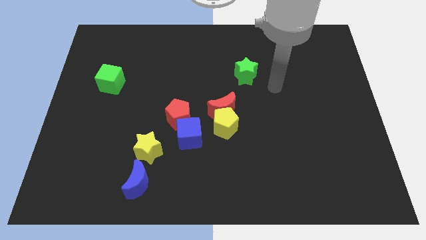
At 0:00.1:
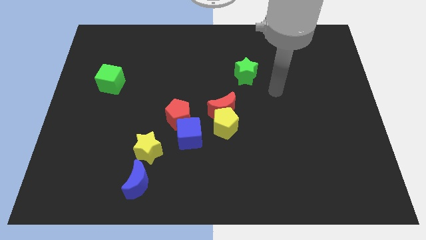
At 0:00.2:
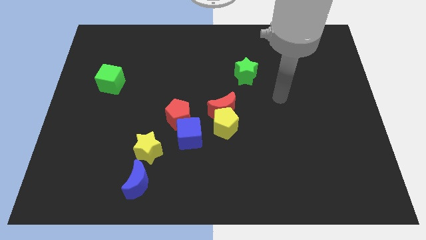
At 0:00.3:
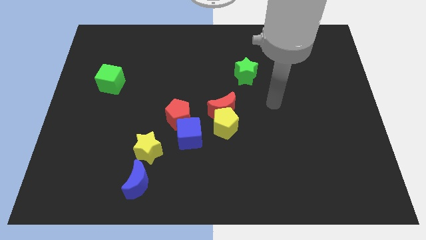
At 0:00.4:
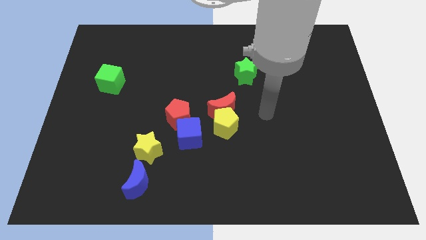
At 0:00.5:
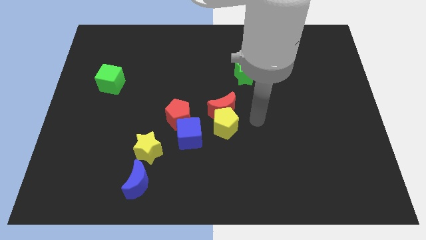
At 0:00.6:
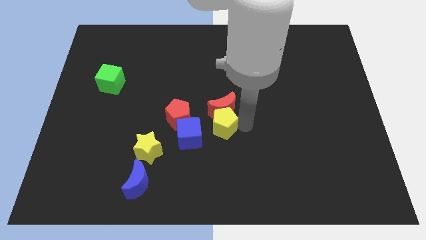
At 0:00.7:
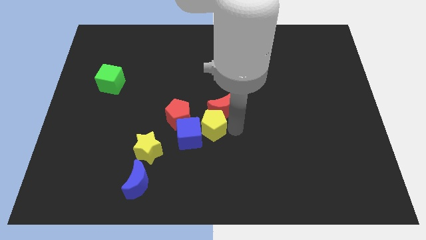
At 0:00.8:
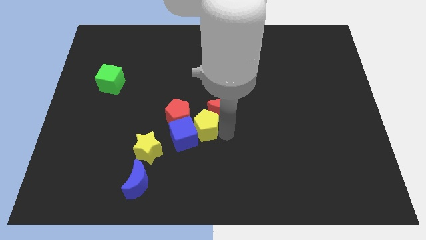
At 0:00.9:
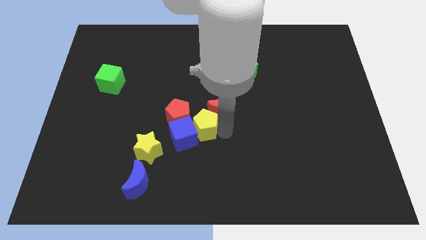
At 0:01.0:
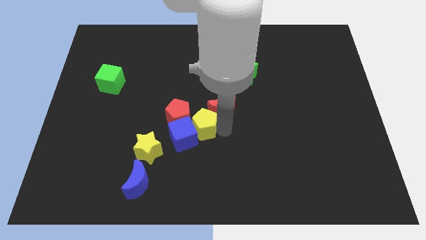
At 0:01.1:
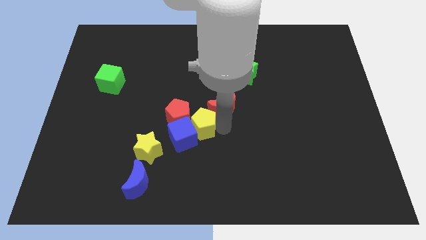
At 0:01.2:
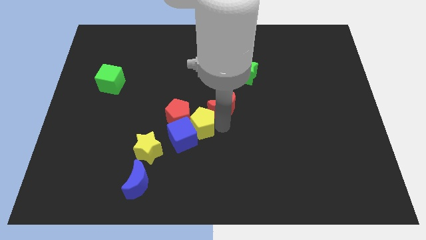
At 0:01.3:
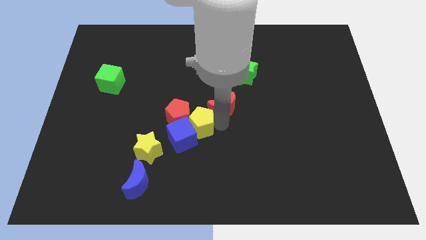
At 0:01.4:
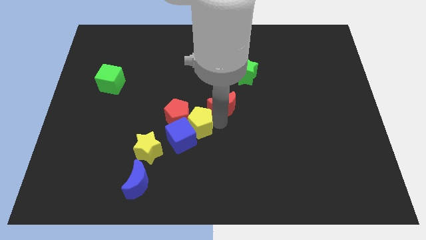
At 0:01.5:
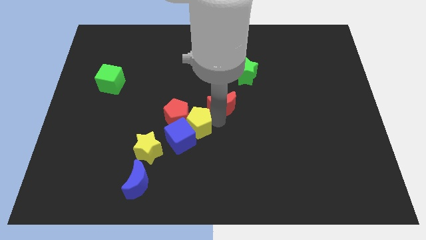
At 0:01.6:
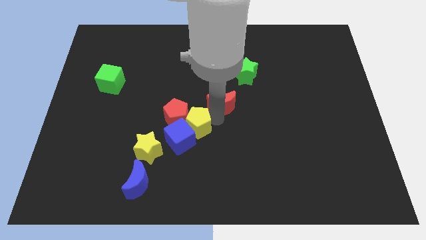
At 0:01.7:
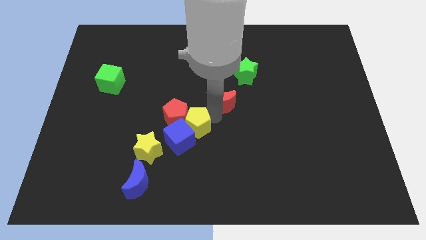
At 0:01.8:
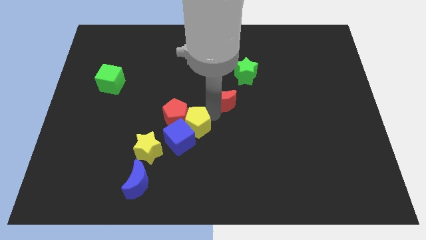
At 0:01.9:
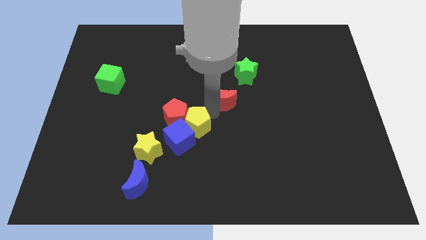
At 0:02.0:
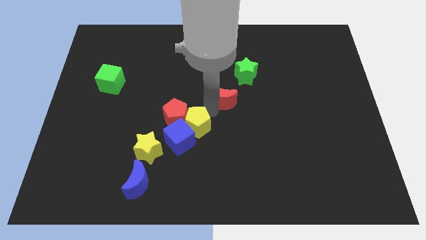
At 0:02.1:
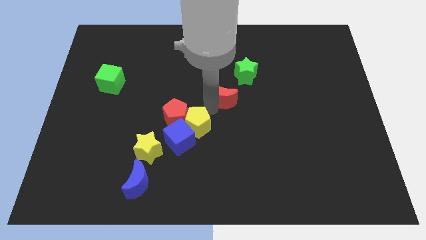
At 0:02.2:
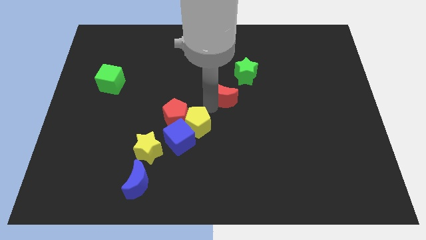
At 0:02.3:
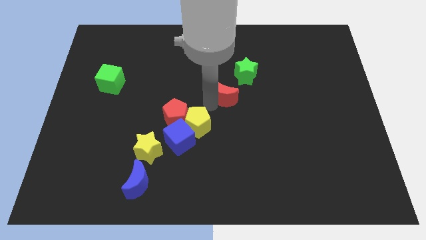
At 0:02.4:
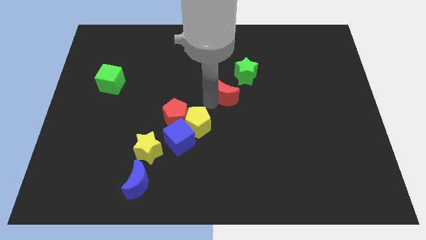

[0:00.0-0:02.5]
move the red moon away from the yellow pentagon

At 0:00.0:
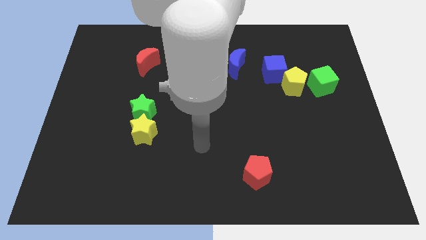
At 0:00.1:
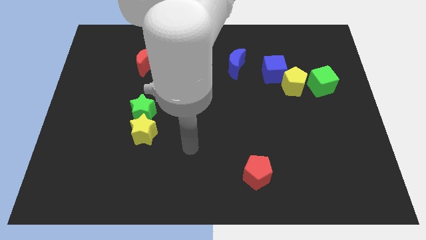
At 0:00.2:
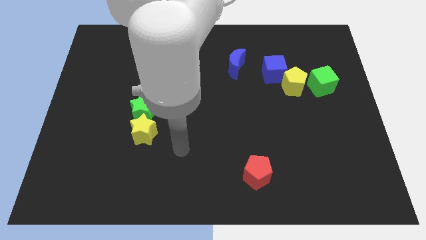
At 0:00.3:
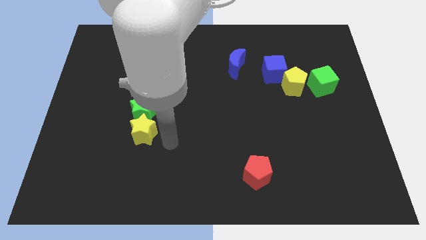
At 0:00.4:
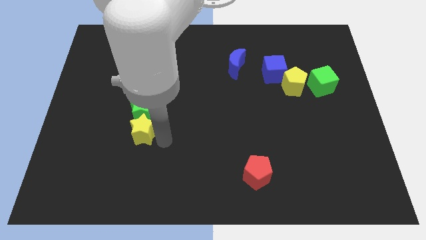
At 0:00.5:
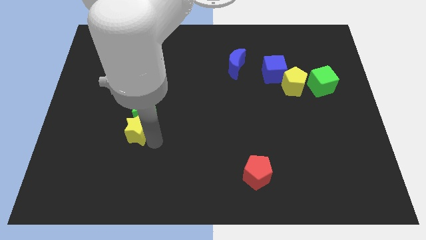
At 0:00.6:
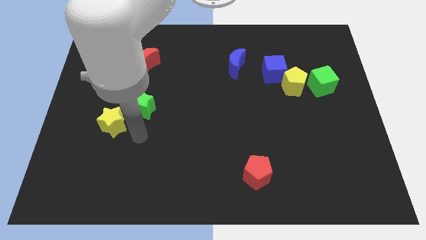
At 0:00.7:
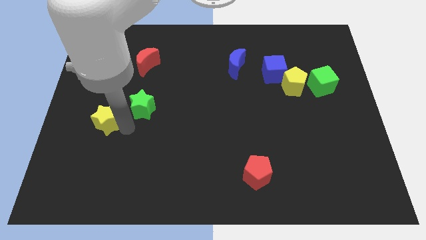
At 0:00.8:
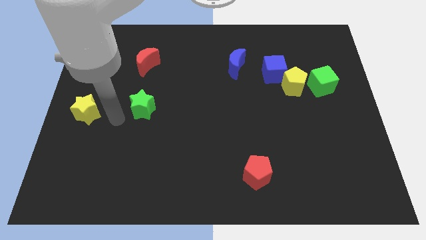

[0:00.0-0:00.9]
separate the green star from the yellow star

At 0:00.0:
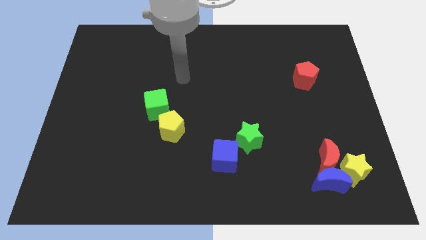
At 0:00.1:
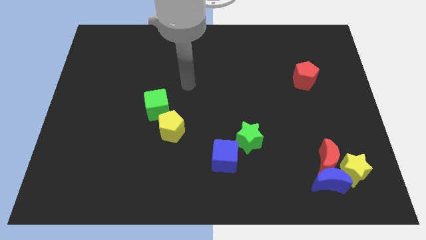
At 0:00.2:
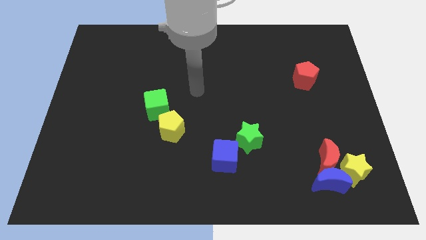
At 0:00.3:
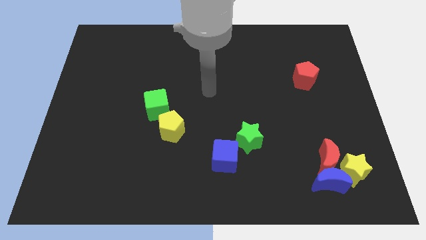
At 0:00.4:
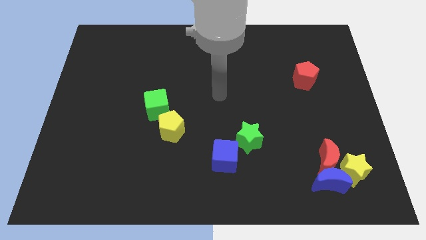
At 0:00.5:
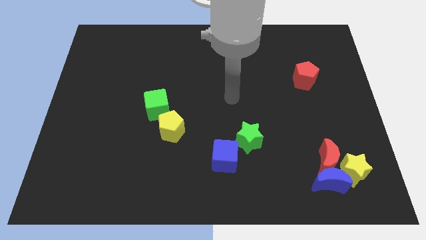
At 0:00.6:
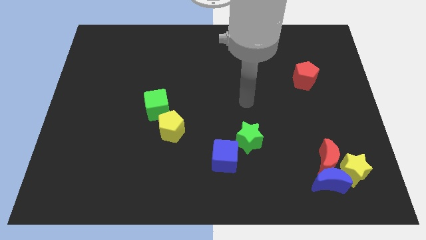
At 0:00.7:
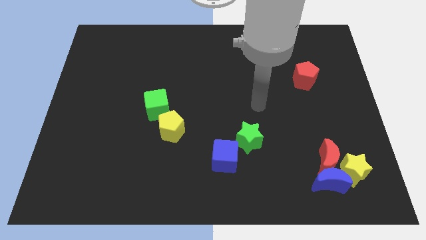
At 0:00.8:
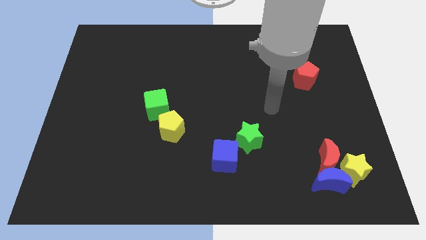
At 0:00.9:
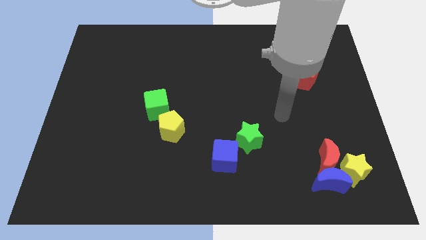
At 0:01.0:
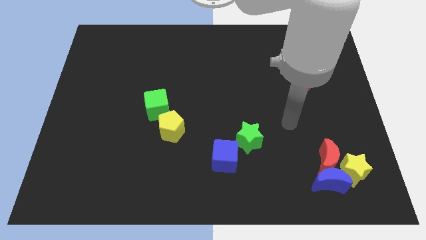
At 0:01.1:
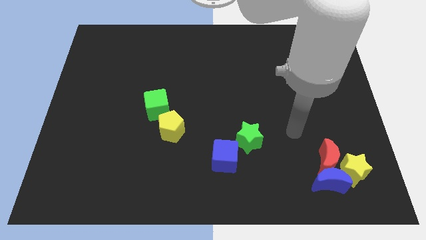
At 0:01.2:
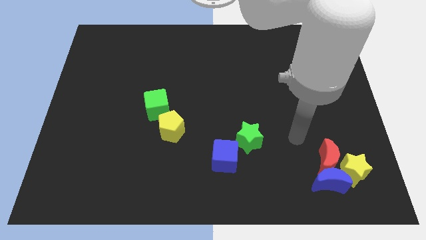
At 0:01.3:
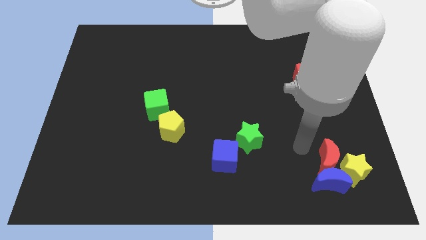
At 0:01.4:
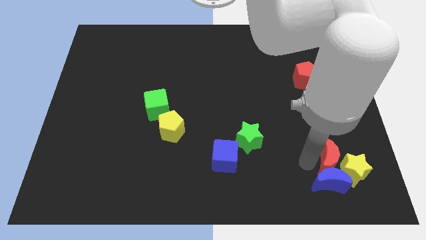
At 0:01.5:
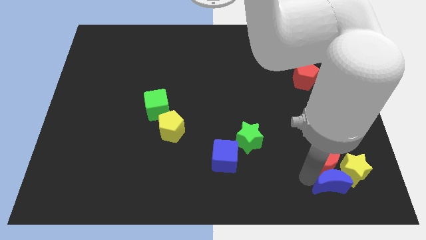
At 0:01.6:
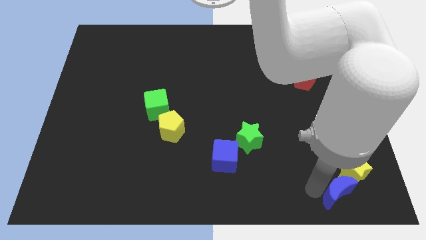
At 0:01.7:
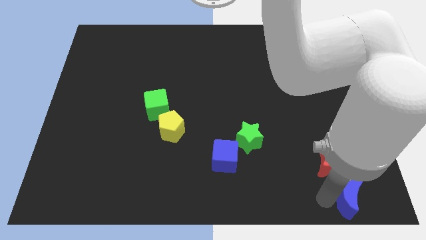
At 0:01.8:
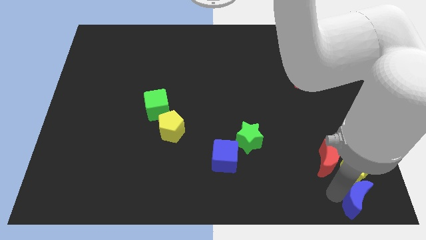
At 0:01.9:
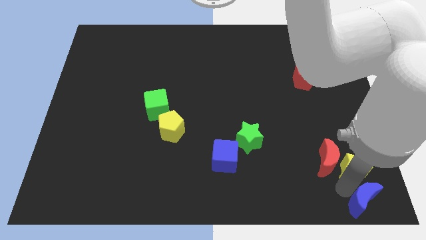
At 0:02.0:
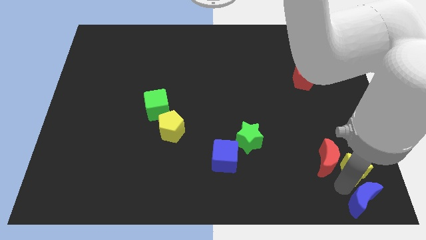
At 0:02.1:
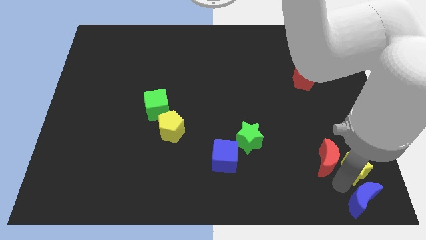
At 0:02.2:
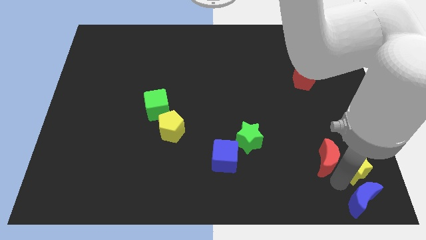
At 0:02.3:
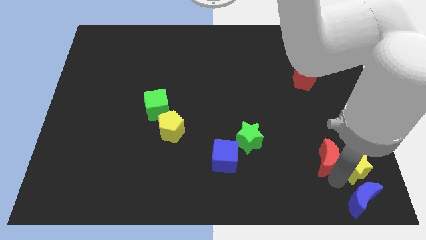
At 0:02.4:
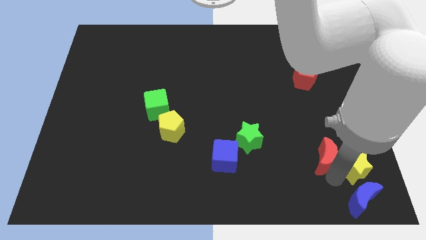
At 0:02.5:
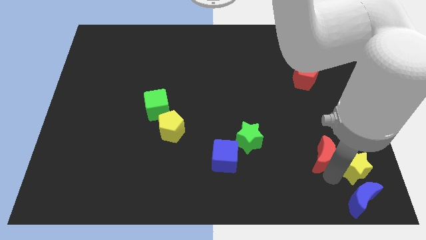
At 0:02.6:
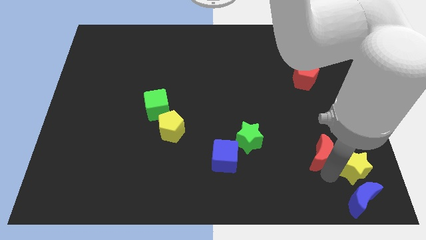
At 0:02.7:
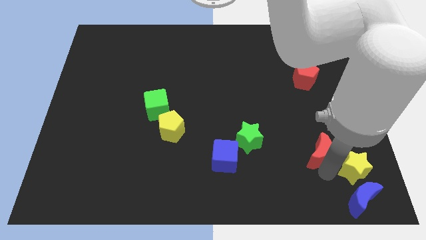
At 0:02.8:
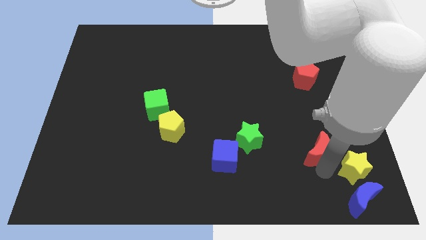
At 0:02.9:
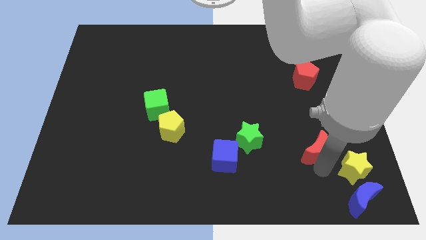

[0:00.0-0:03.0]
move the red moon away from the blue moon and yellow star

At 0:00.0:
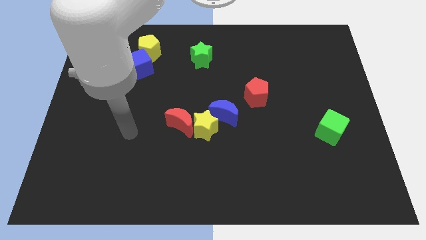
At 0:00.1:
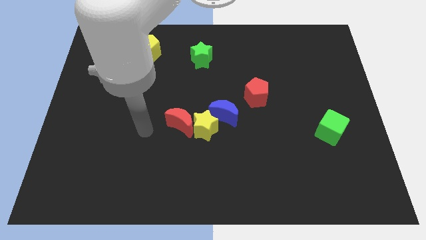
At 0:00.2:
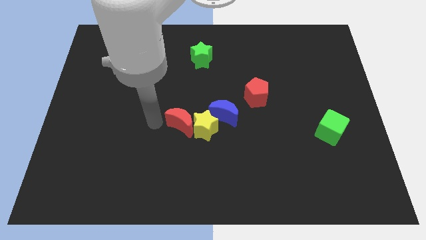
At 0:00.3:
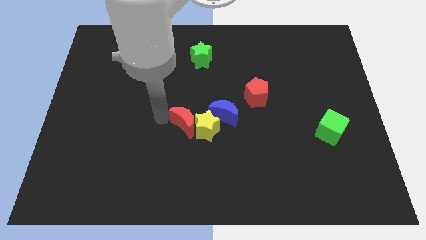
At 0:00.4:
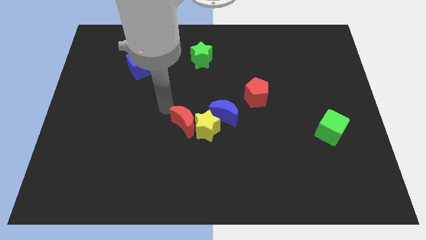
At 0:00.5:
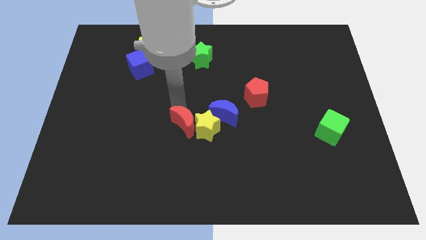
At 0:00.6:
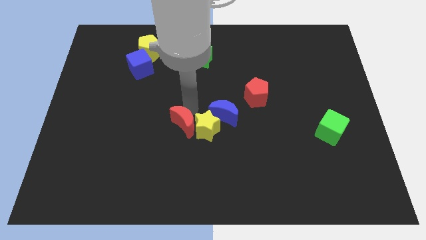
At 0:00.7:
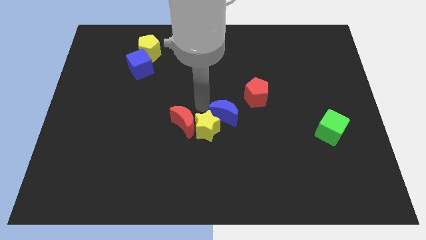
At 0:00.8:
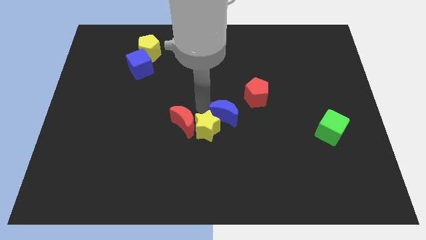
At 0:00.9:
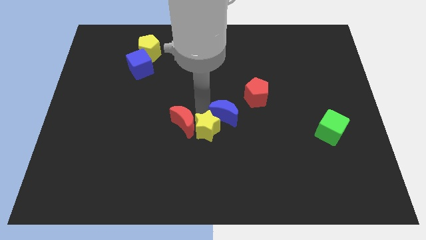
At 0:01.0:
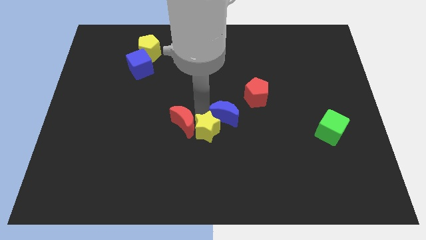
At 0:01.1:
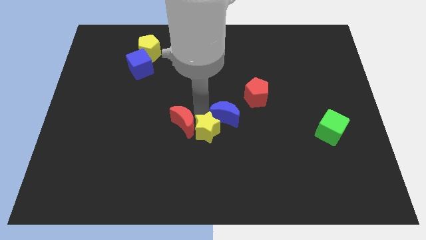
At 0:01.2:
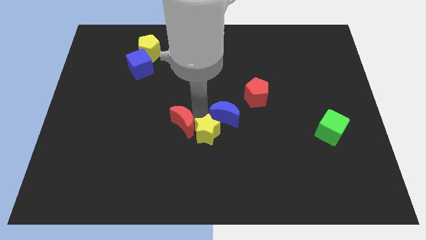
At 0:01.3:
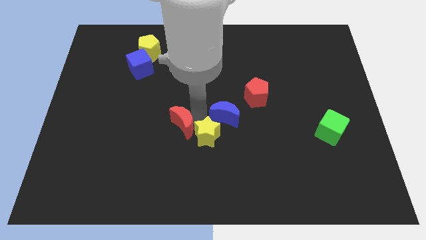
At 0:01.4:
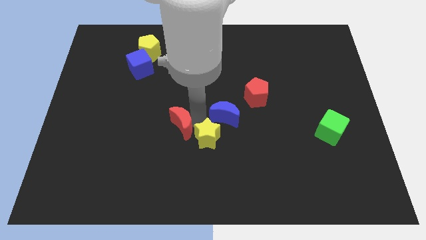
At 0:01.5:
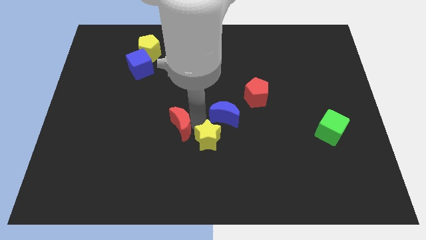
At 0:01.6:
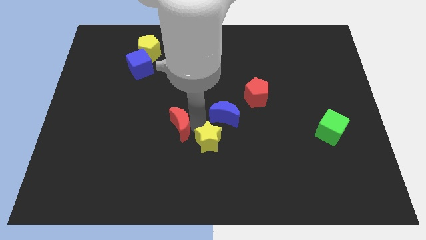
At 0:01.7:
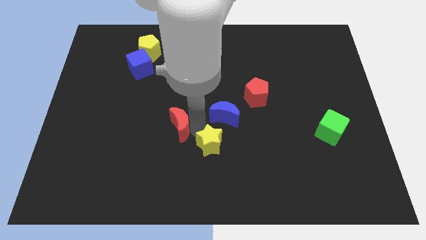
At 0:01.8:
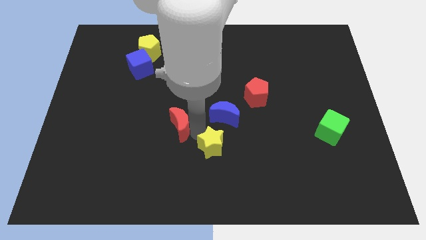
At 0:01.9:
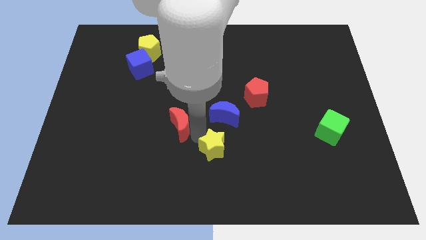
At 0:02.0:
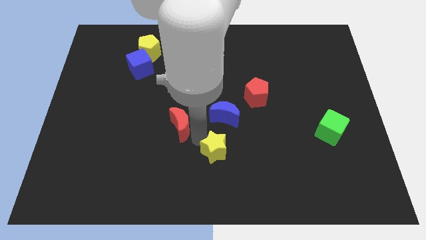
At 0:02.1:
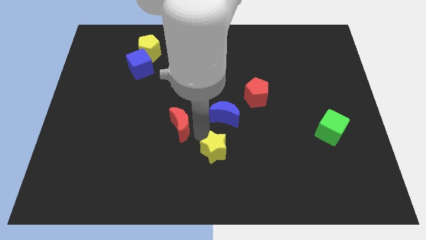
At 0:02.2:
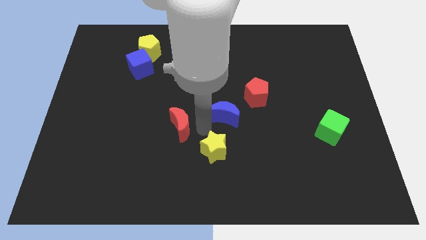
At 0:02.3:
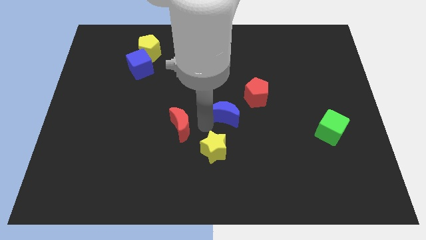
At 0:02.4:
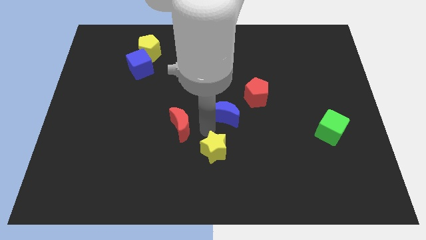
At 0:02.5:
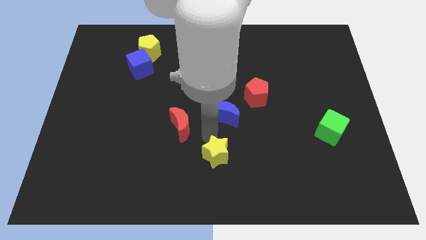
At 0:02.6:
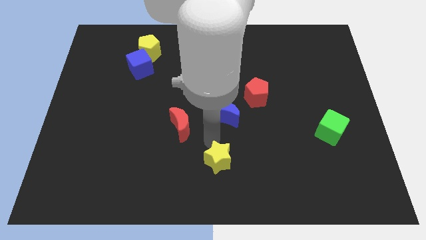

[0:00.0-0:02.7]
move the yellow star away from the red moon and blue moon

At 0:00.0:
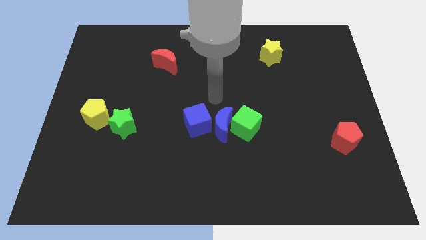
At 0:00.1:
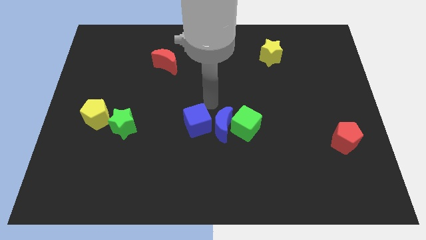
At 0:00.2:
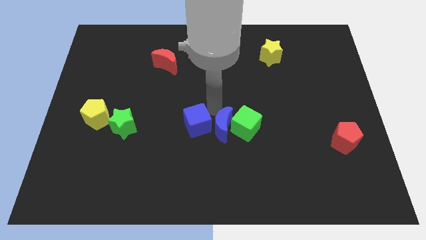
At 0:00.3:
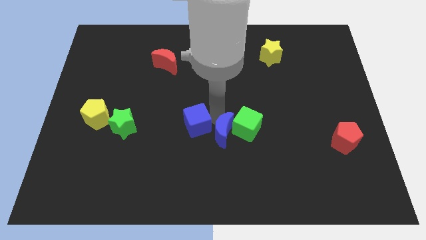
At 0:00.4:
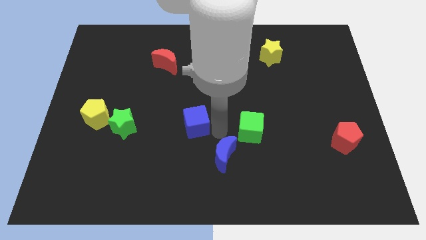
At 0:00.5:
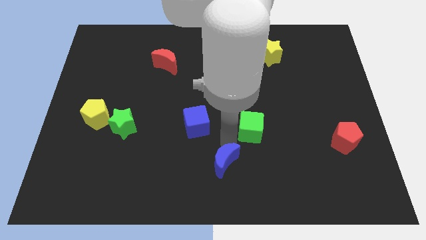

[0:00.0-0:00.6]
separate the green cube from the blue moon
